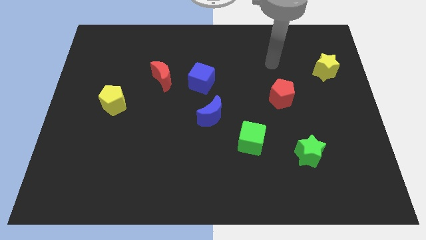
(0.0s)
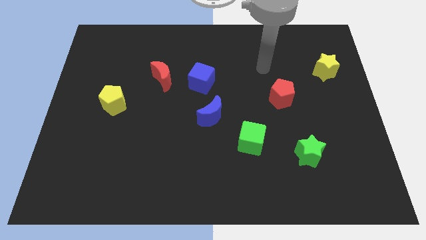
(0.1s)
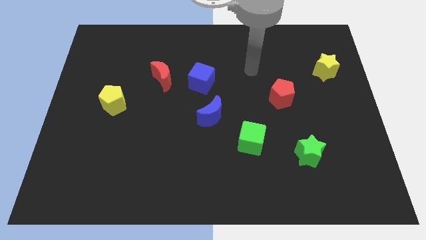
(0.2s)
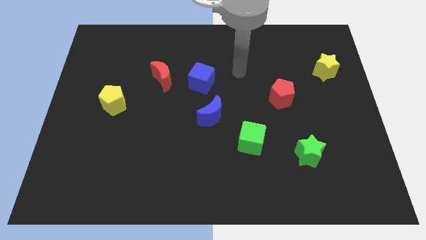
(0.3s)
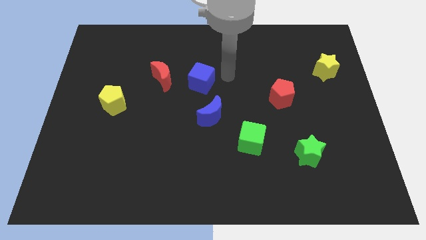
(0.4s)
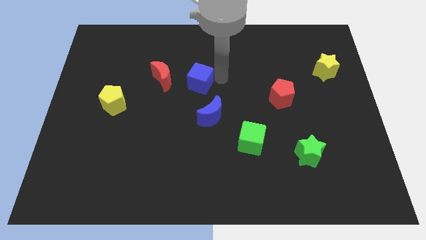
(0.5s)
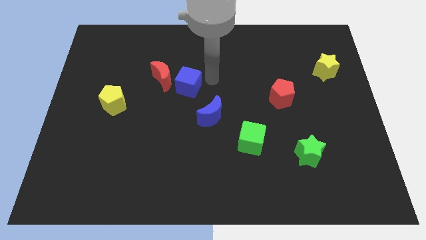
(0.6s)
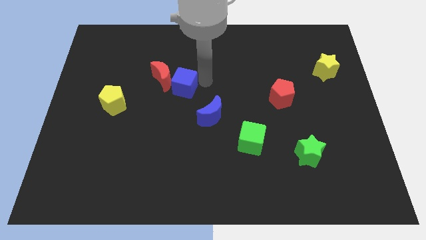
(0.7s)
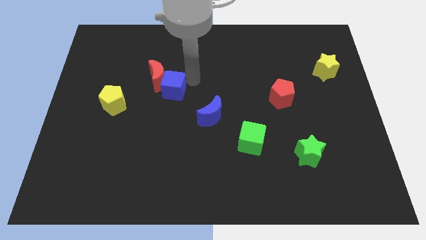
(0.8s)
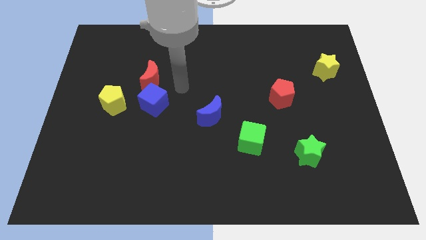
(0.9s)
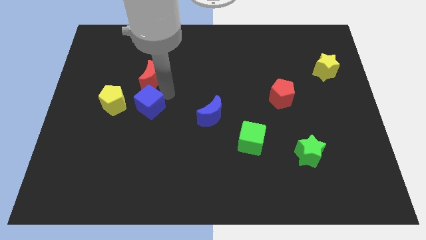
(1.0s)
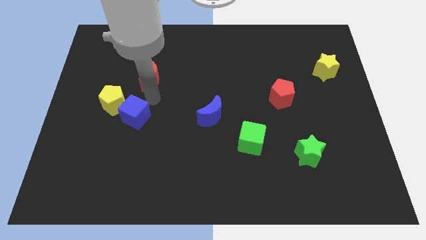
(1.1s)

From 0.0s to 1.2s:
pull the red moon apart from the blue cube

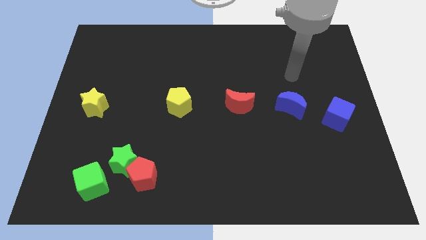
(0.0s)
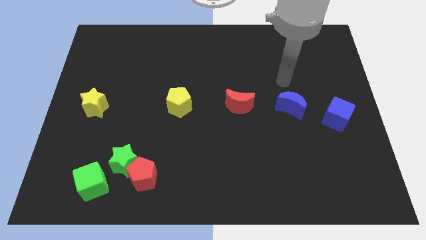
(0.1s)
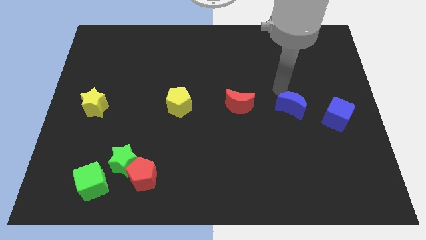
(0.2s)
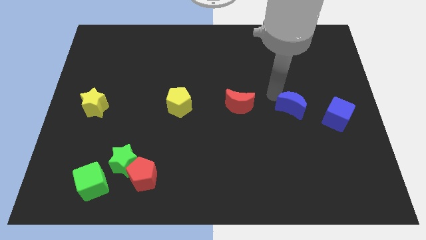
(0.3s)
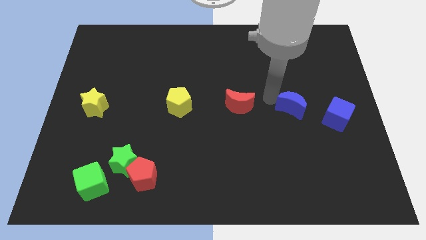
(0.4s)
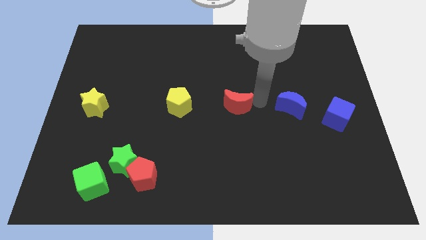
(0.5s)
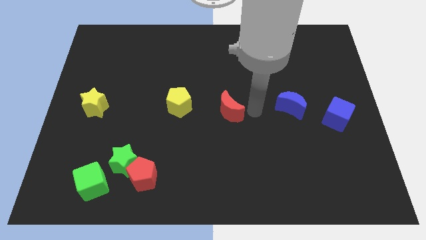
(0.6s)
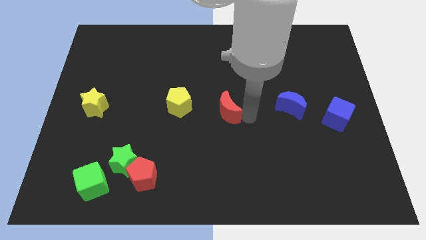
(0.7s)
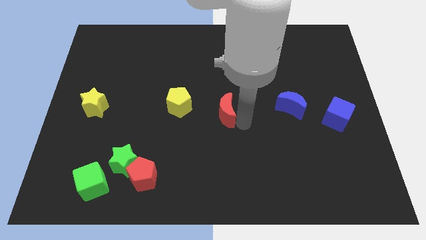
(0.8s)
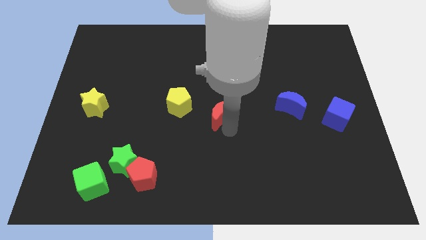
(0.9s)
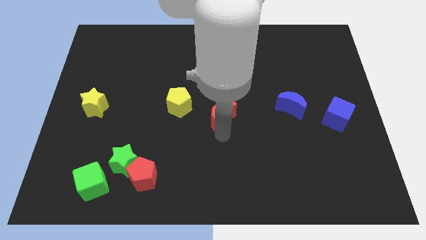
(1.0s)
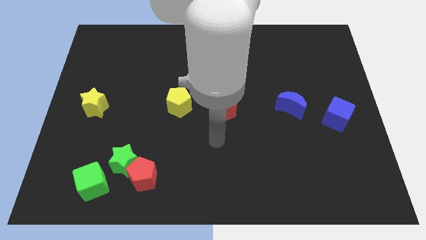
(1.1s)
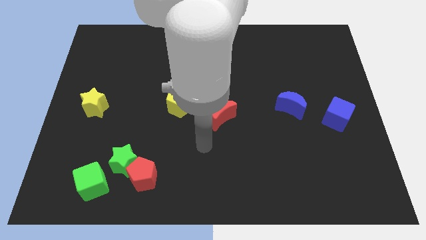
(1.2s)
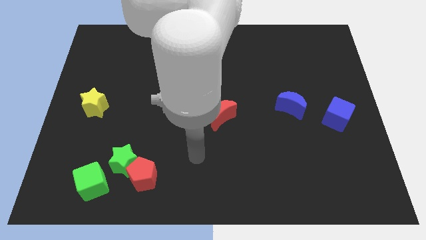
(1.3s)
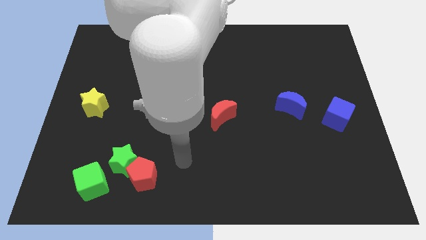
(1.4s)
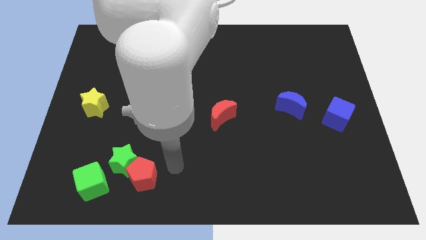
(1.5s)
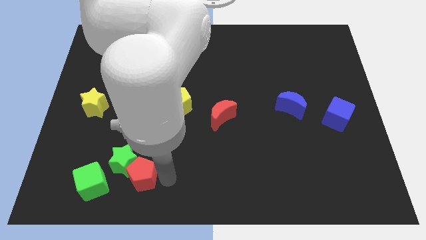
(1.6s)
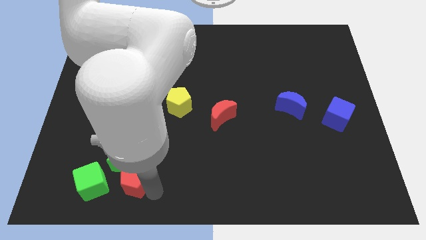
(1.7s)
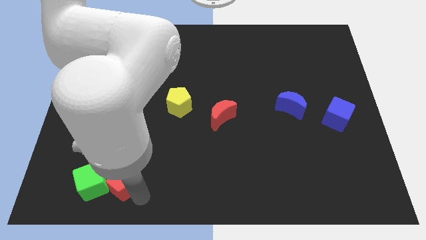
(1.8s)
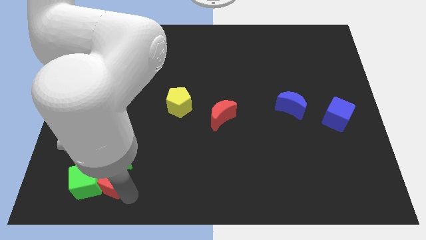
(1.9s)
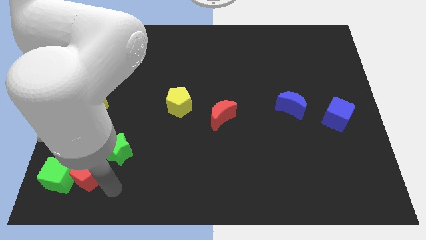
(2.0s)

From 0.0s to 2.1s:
pull the green star apart from the red pentagon and green cube

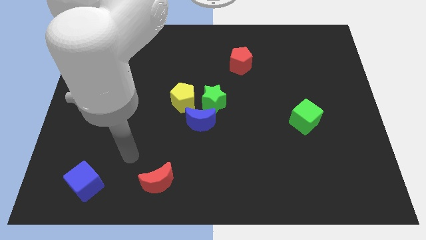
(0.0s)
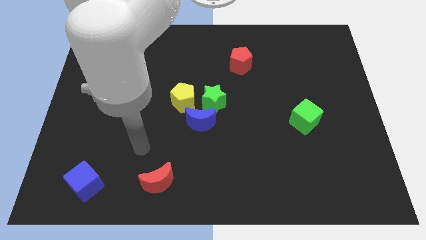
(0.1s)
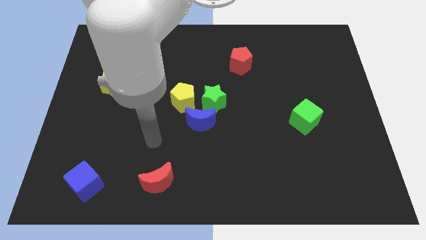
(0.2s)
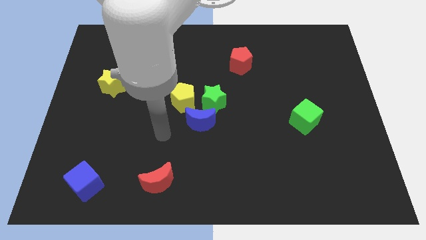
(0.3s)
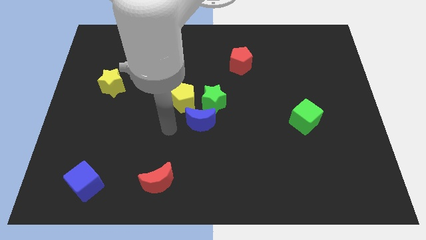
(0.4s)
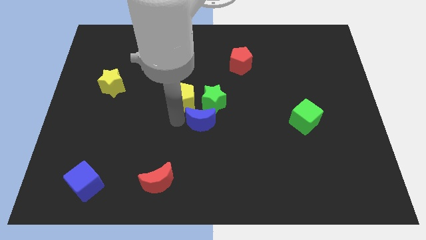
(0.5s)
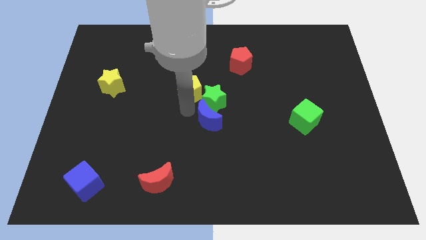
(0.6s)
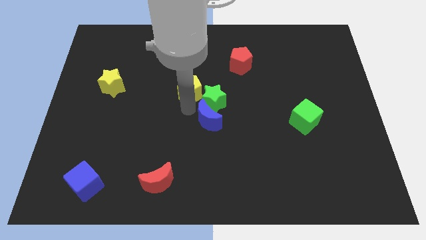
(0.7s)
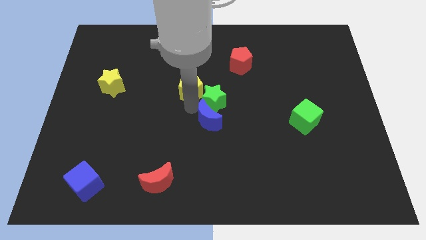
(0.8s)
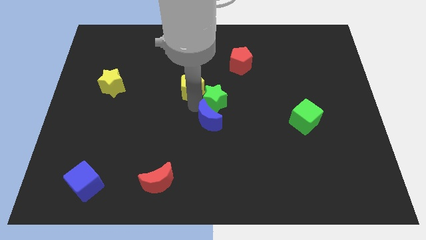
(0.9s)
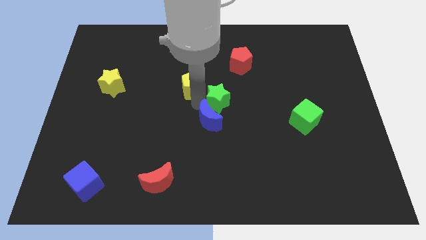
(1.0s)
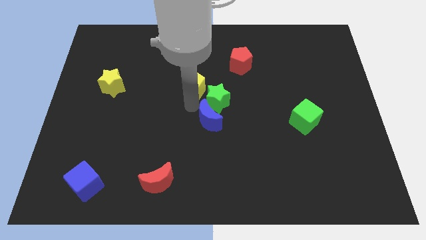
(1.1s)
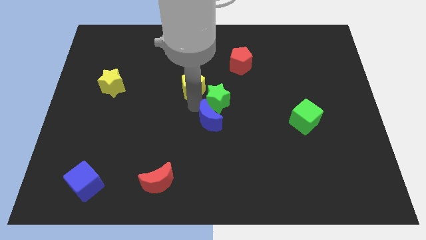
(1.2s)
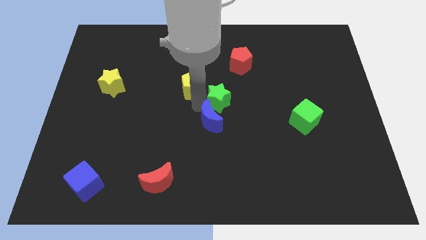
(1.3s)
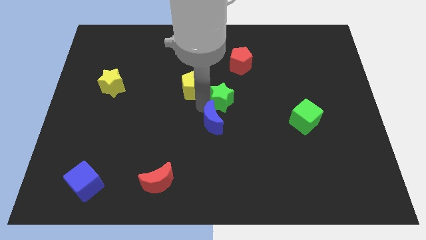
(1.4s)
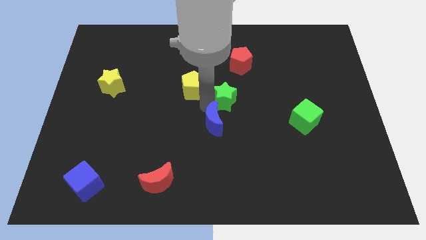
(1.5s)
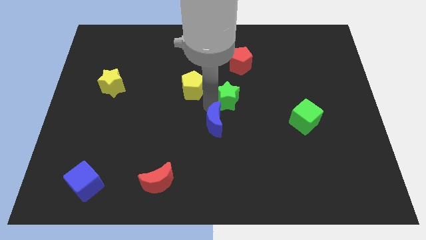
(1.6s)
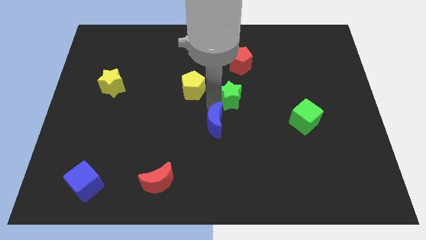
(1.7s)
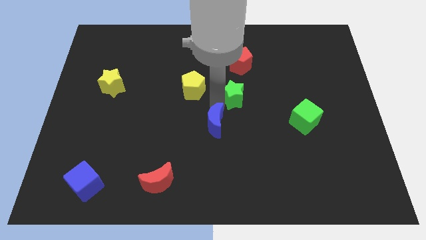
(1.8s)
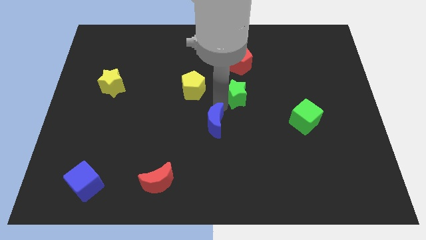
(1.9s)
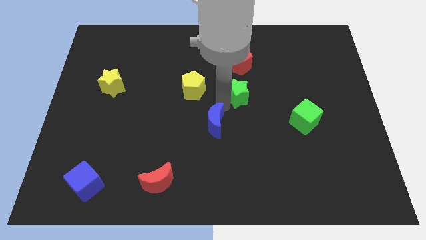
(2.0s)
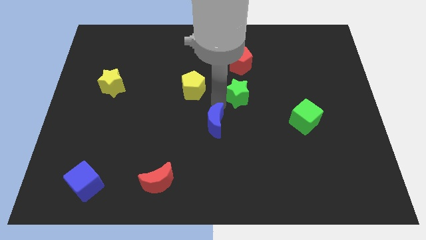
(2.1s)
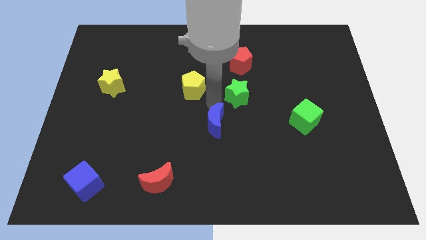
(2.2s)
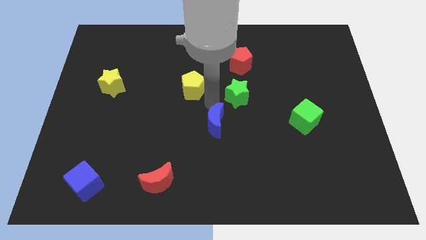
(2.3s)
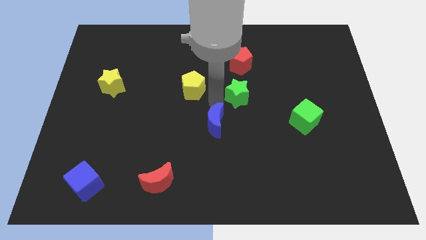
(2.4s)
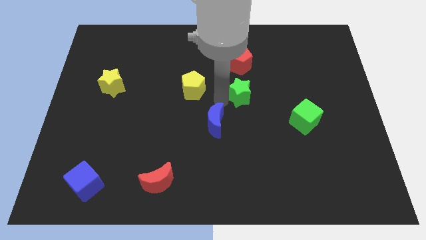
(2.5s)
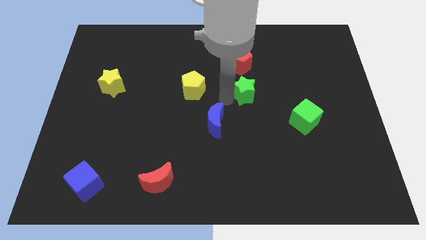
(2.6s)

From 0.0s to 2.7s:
move the green star away from the blue moon and yellow pentagon

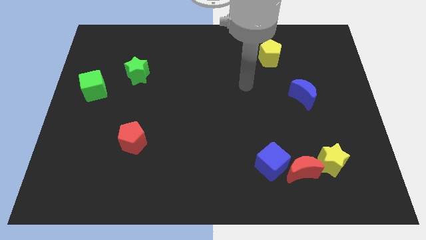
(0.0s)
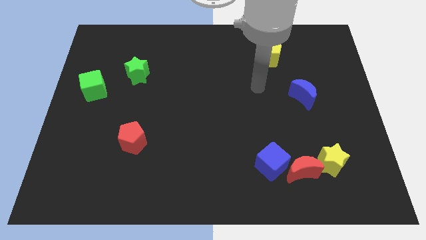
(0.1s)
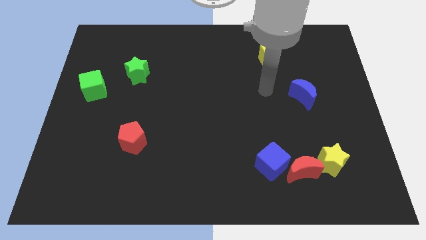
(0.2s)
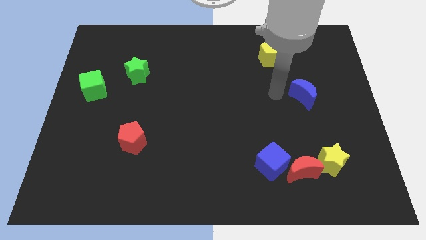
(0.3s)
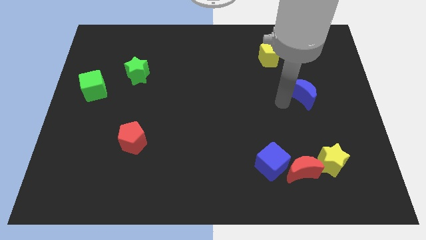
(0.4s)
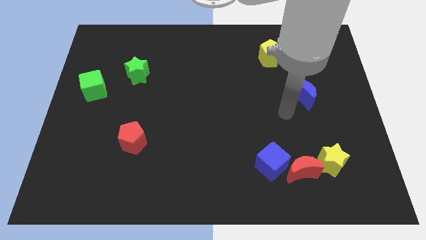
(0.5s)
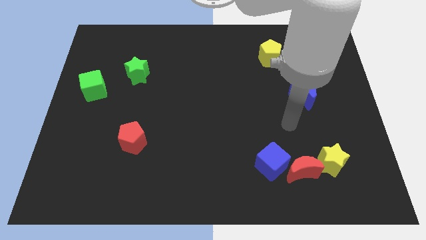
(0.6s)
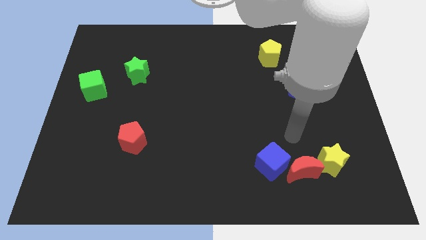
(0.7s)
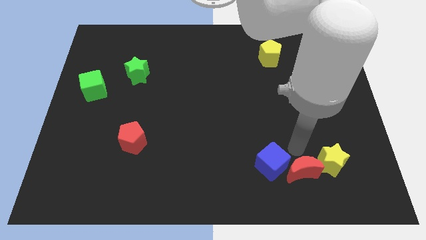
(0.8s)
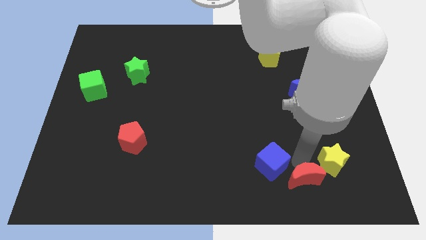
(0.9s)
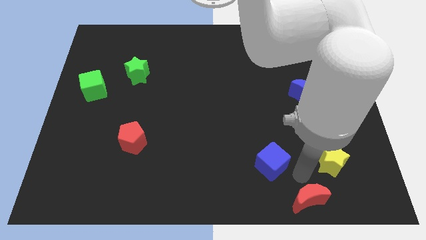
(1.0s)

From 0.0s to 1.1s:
pull the blue cube apart from the red moon

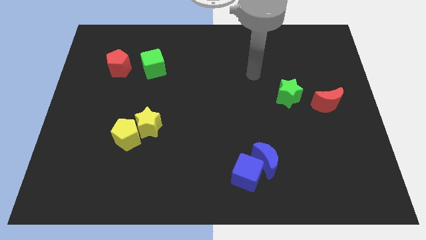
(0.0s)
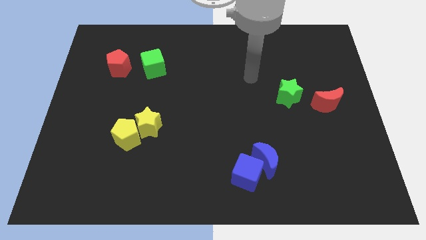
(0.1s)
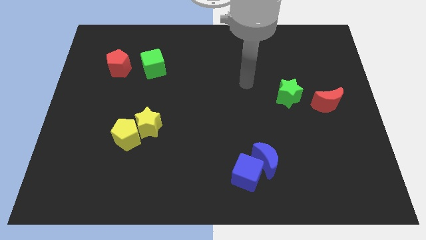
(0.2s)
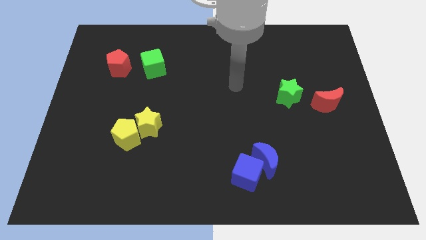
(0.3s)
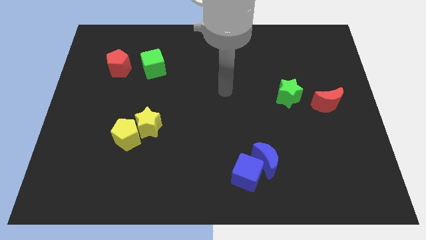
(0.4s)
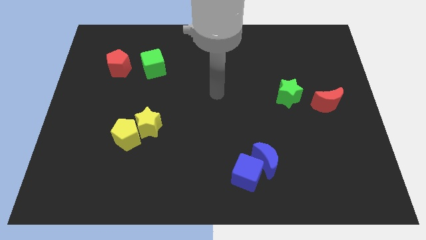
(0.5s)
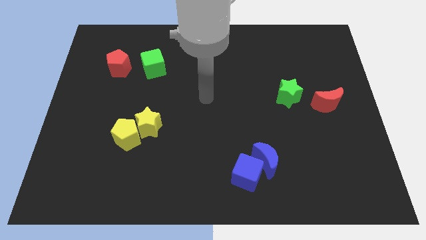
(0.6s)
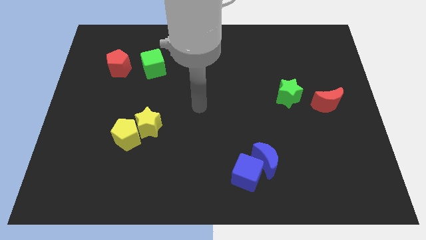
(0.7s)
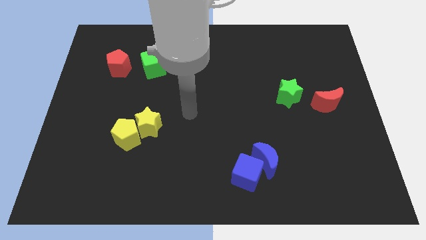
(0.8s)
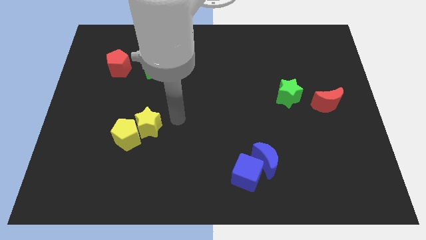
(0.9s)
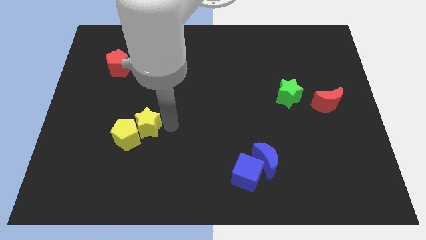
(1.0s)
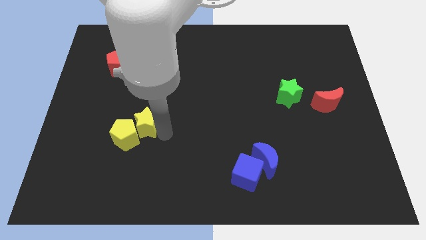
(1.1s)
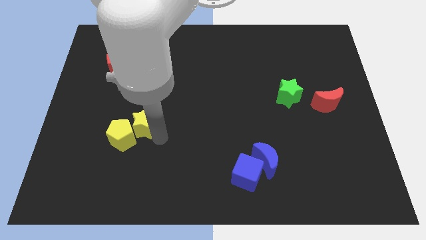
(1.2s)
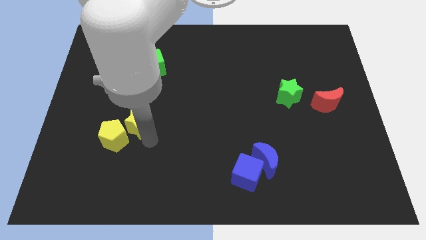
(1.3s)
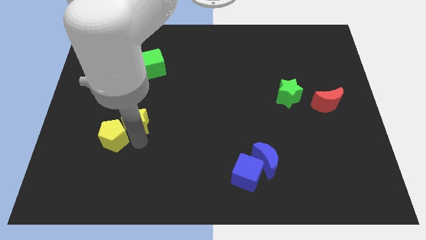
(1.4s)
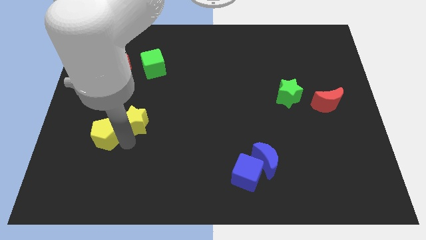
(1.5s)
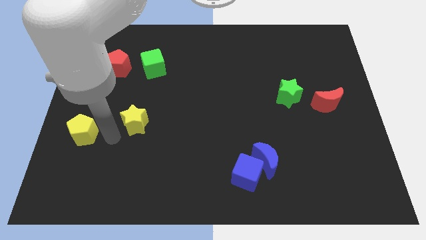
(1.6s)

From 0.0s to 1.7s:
move the yellow star away from the yellow pentagon

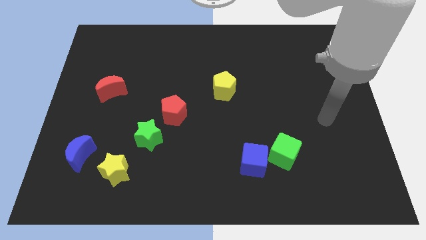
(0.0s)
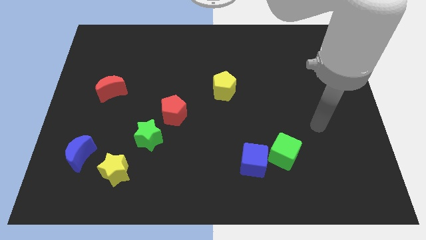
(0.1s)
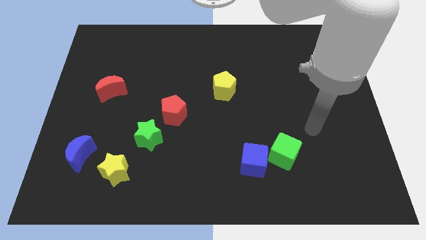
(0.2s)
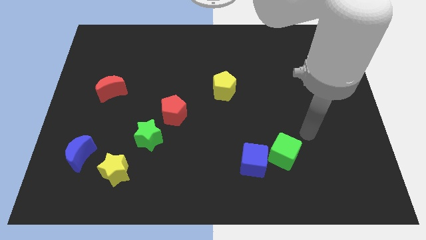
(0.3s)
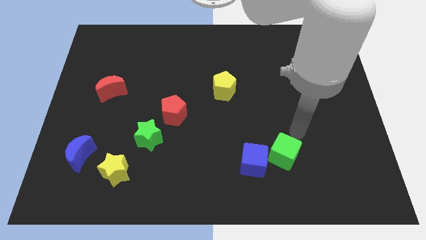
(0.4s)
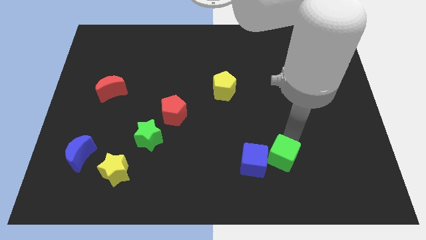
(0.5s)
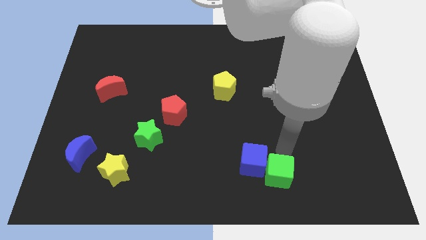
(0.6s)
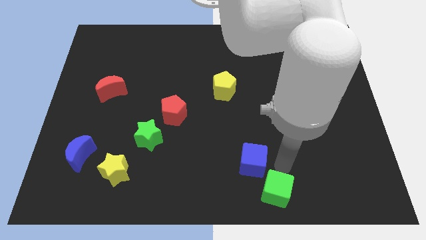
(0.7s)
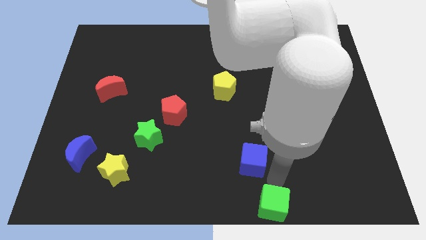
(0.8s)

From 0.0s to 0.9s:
pull the blue cube apart from the green cube
